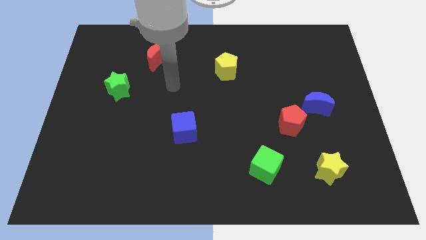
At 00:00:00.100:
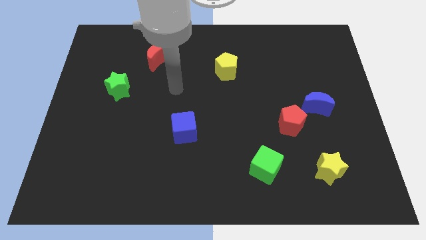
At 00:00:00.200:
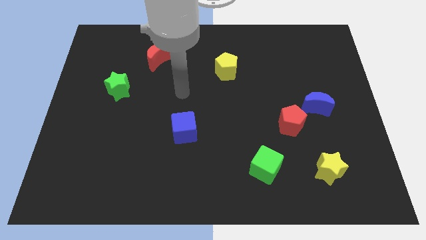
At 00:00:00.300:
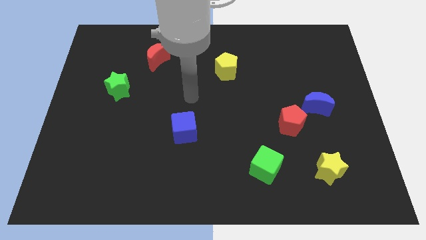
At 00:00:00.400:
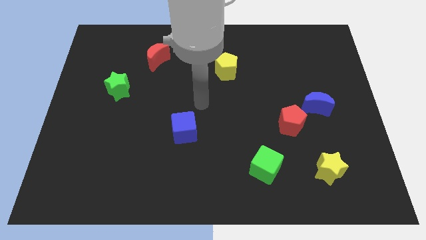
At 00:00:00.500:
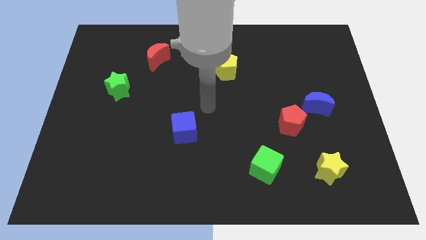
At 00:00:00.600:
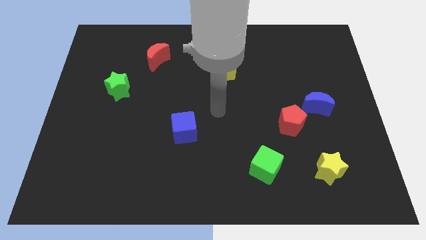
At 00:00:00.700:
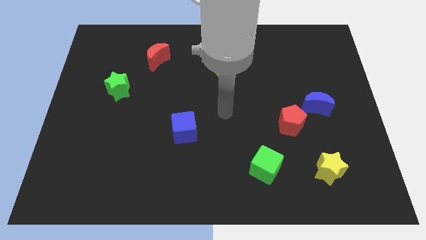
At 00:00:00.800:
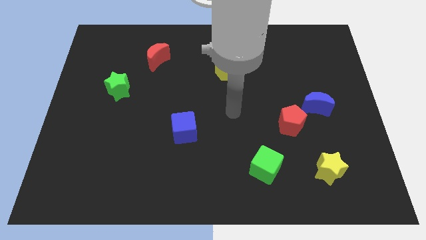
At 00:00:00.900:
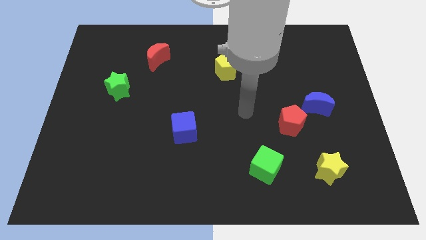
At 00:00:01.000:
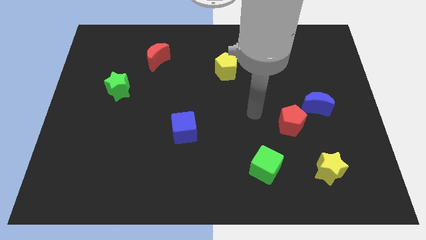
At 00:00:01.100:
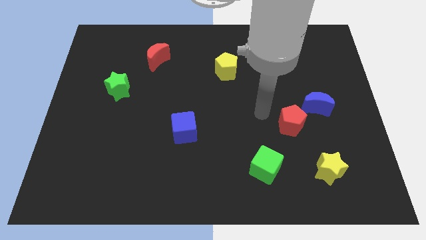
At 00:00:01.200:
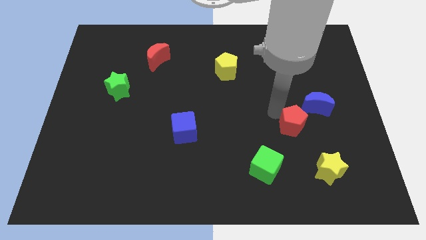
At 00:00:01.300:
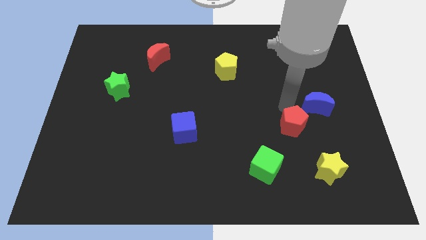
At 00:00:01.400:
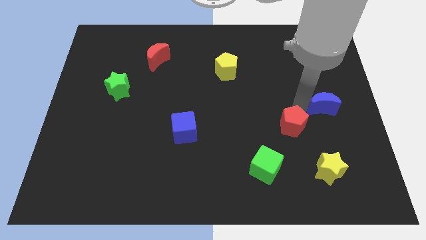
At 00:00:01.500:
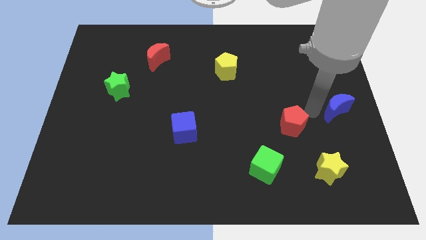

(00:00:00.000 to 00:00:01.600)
pull the red pentagon apart from the blue moon

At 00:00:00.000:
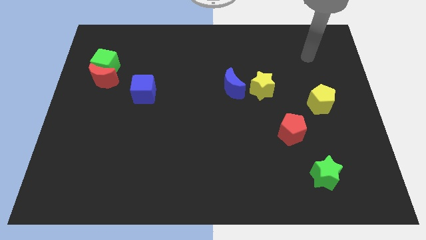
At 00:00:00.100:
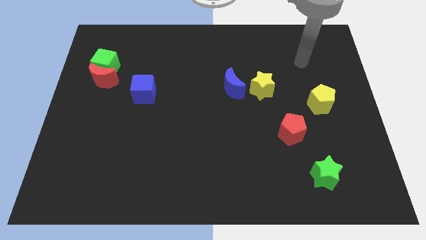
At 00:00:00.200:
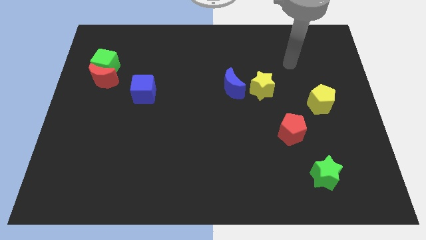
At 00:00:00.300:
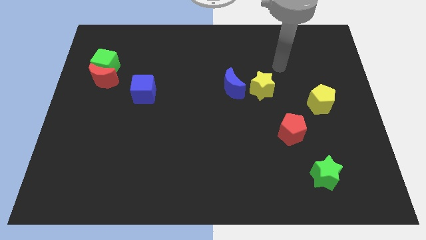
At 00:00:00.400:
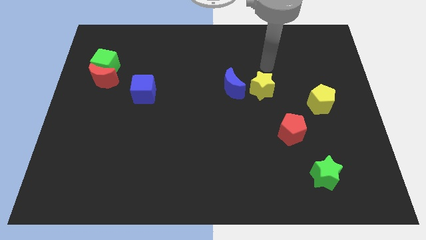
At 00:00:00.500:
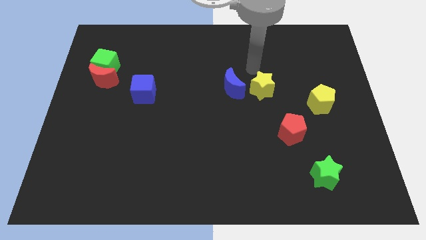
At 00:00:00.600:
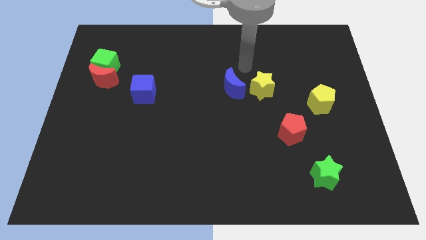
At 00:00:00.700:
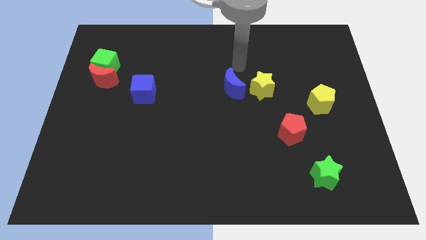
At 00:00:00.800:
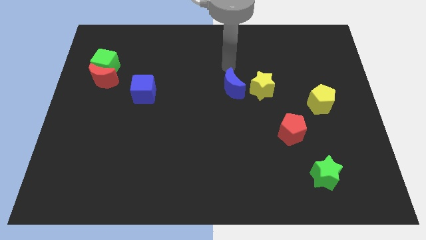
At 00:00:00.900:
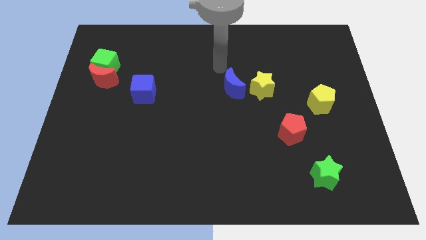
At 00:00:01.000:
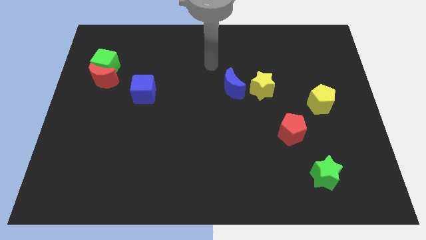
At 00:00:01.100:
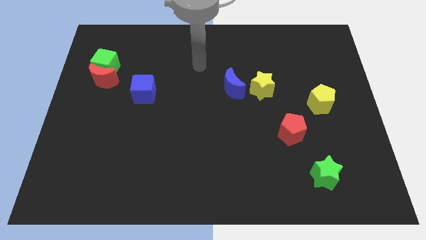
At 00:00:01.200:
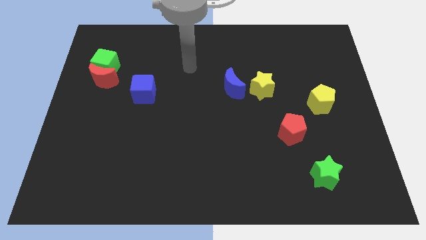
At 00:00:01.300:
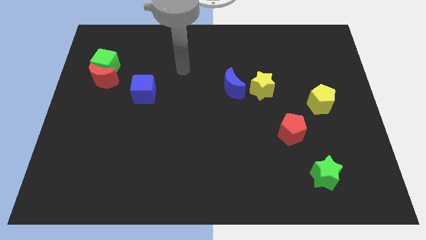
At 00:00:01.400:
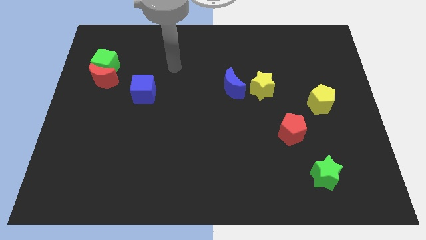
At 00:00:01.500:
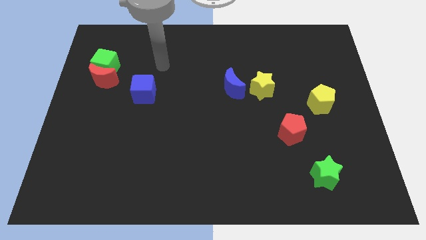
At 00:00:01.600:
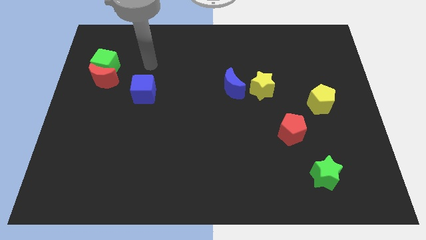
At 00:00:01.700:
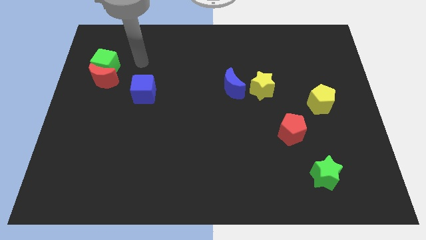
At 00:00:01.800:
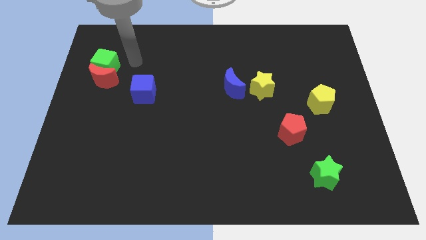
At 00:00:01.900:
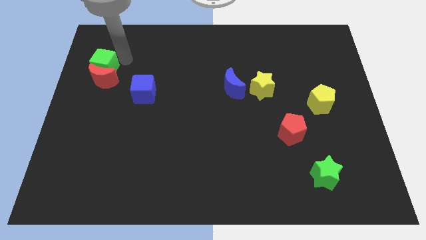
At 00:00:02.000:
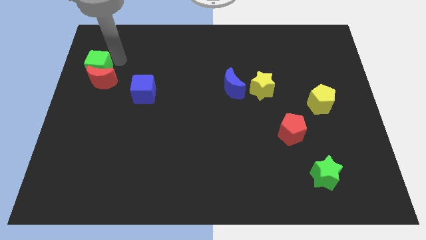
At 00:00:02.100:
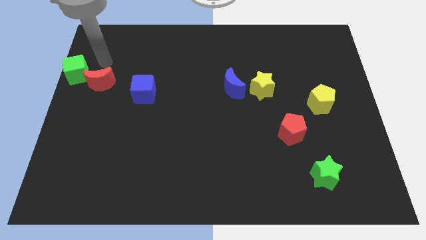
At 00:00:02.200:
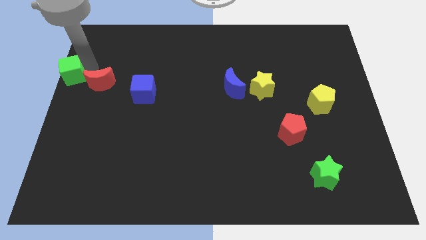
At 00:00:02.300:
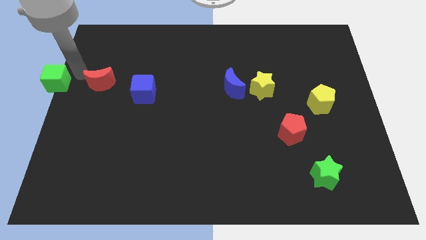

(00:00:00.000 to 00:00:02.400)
separate the red moon from the green cube

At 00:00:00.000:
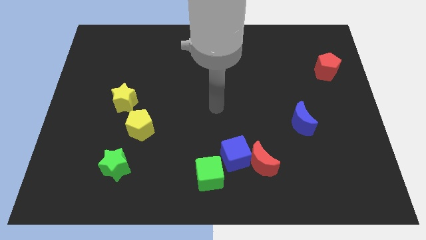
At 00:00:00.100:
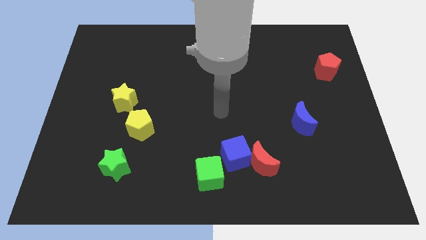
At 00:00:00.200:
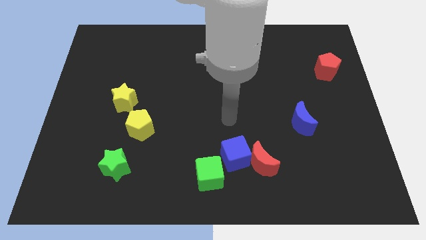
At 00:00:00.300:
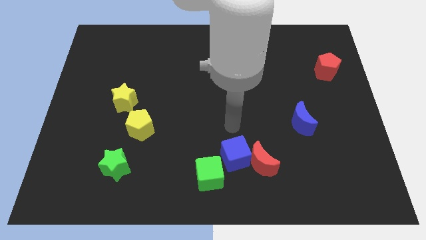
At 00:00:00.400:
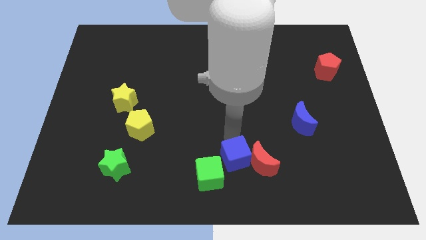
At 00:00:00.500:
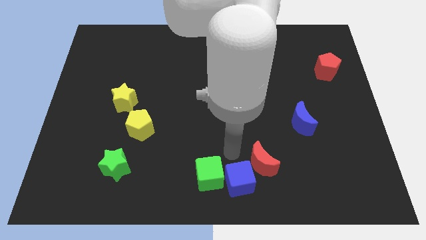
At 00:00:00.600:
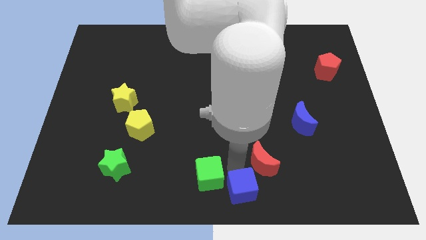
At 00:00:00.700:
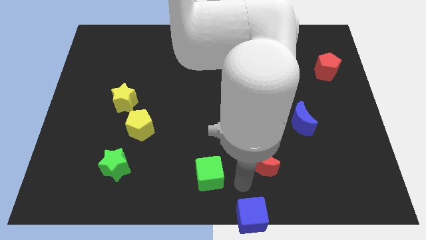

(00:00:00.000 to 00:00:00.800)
move the red moon away from the blue cube

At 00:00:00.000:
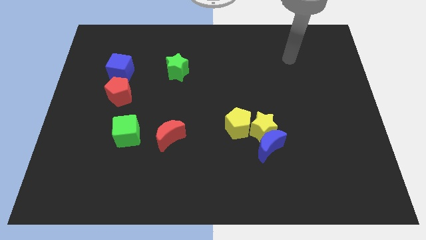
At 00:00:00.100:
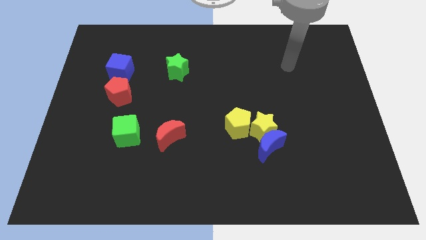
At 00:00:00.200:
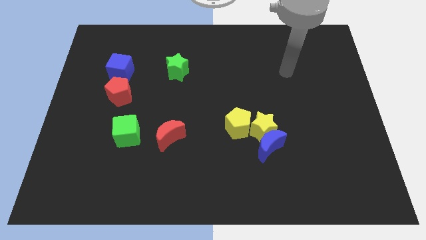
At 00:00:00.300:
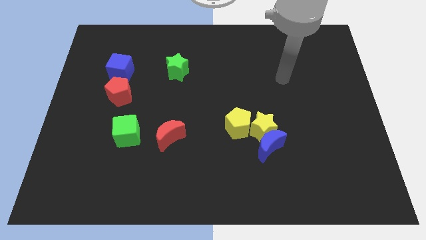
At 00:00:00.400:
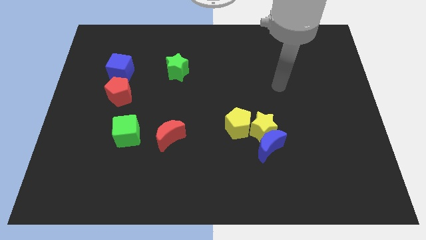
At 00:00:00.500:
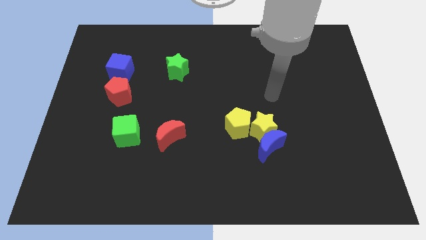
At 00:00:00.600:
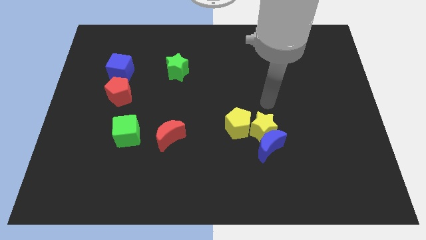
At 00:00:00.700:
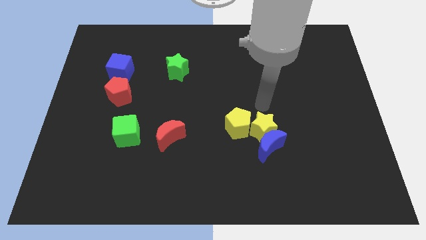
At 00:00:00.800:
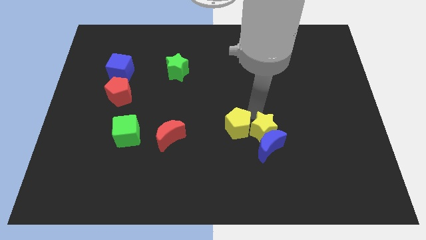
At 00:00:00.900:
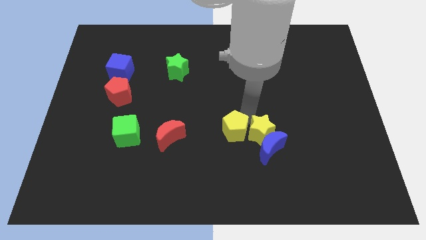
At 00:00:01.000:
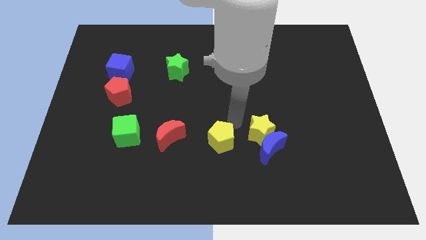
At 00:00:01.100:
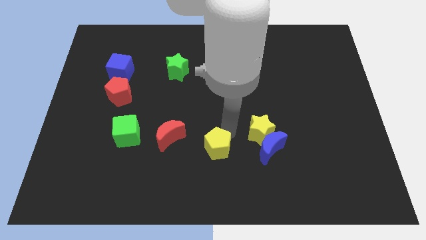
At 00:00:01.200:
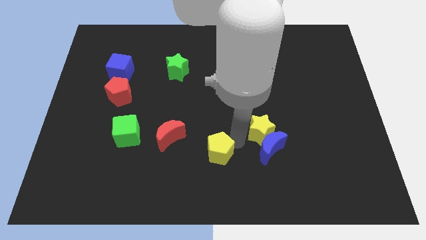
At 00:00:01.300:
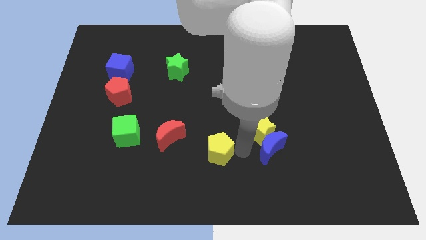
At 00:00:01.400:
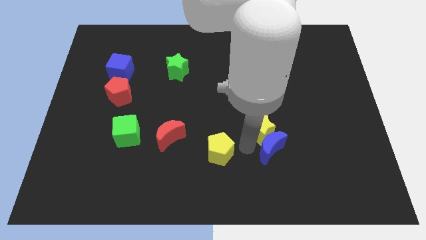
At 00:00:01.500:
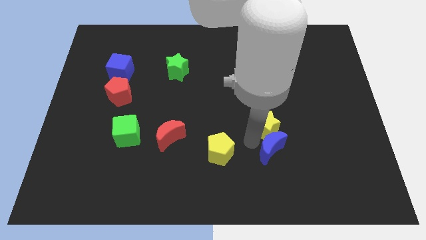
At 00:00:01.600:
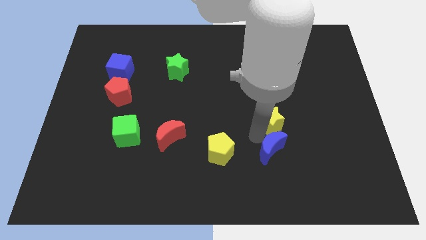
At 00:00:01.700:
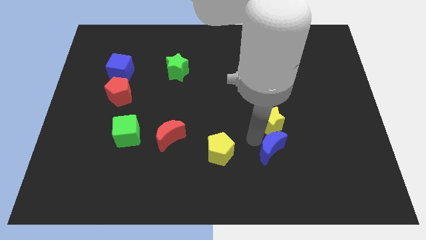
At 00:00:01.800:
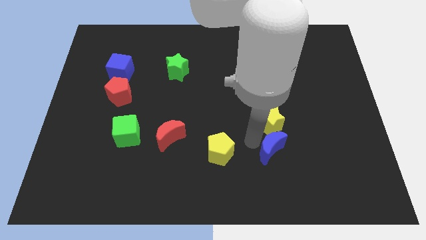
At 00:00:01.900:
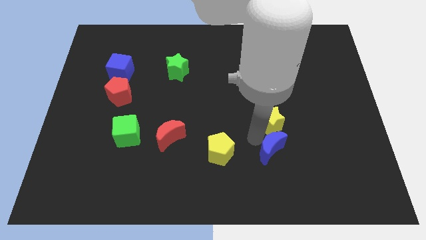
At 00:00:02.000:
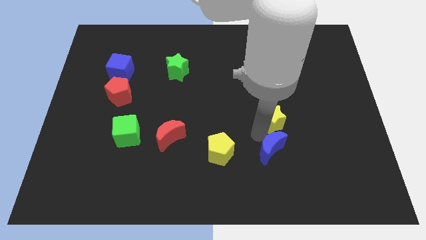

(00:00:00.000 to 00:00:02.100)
pull the yellow star apart from the blue moon and yellow pentagon

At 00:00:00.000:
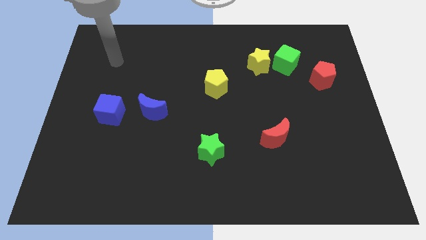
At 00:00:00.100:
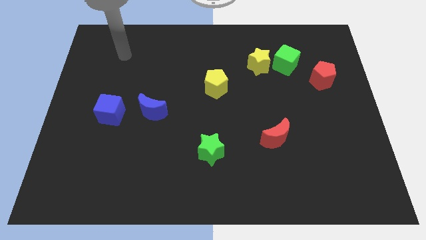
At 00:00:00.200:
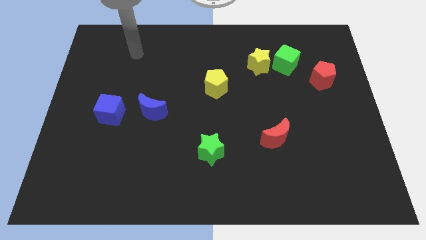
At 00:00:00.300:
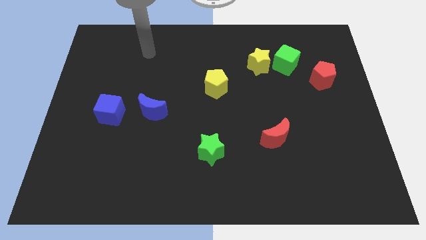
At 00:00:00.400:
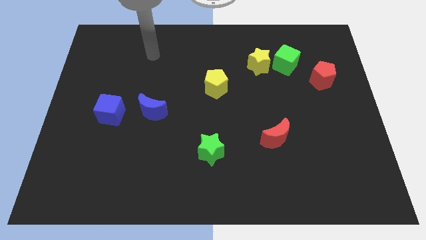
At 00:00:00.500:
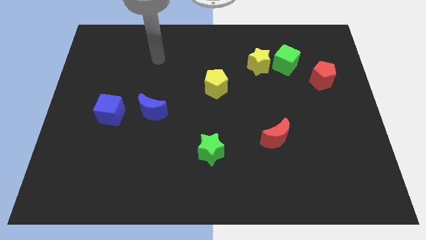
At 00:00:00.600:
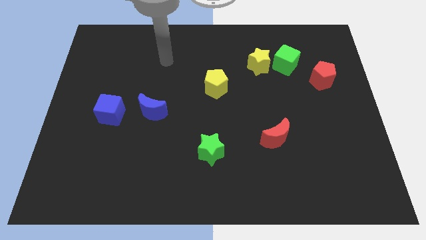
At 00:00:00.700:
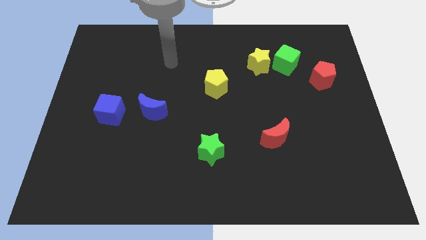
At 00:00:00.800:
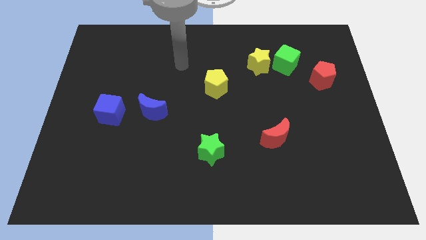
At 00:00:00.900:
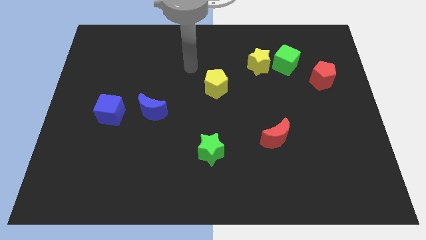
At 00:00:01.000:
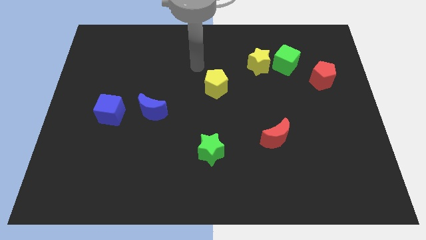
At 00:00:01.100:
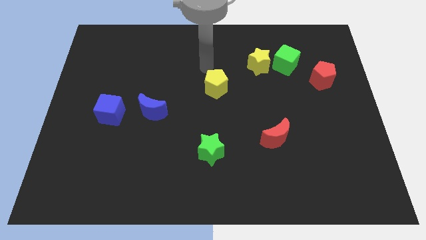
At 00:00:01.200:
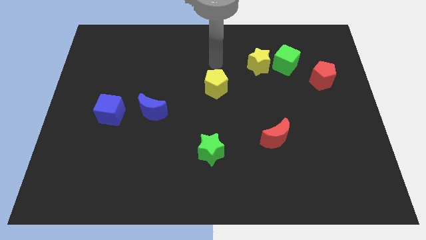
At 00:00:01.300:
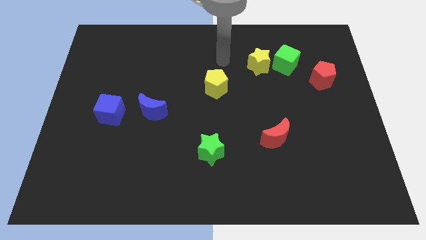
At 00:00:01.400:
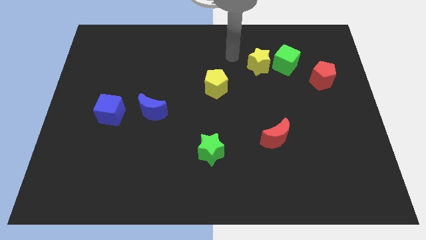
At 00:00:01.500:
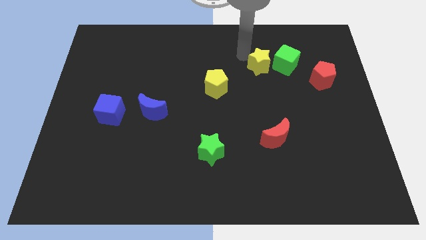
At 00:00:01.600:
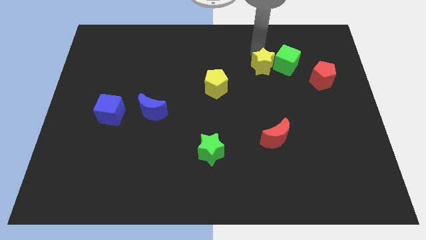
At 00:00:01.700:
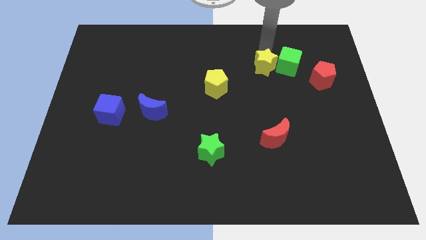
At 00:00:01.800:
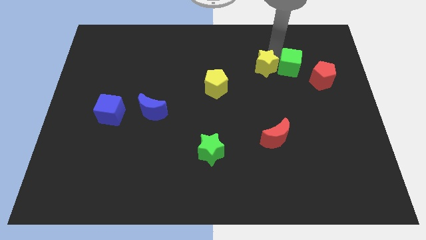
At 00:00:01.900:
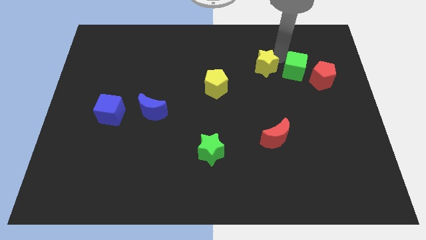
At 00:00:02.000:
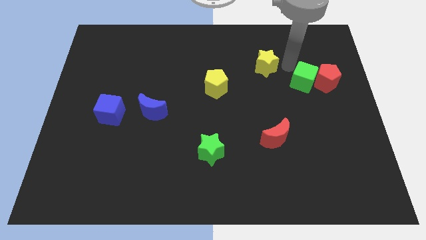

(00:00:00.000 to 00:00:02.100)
move the yellow star away from the green cube
